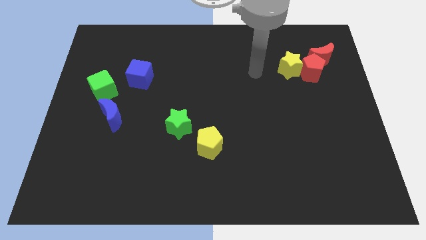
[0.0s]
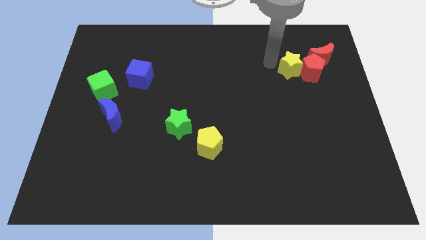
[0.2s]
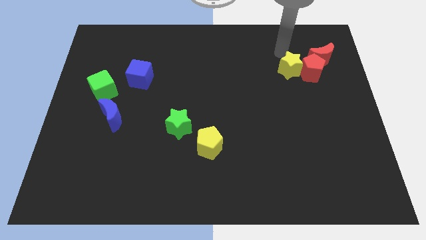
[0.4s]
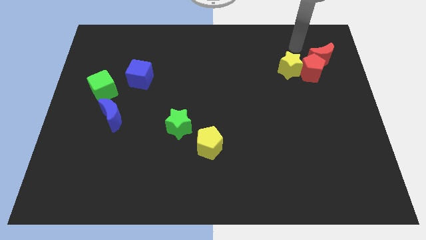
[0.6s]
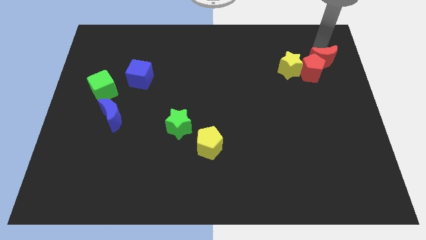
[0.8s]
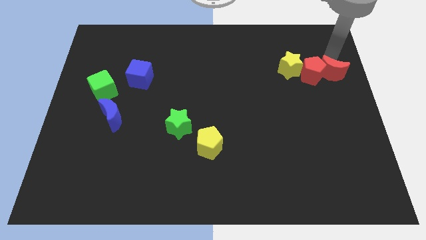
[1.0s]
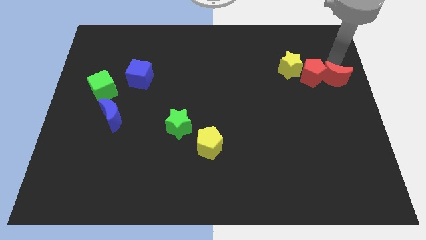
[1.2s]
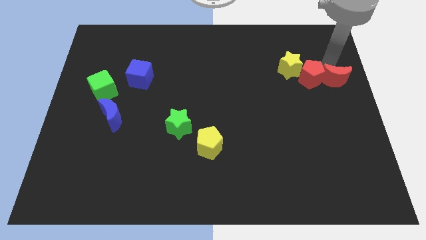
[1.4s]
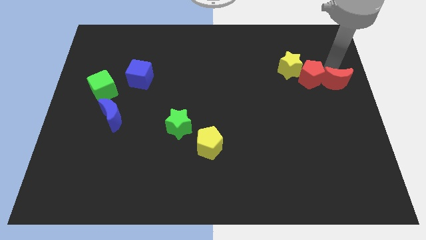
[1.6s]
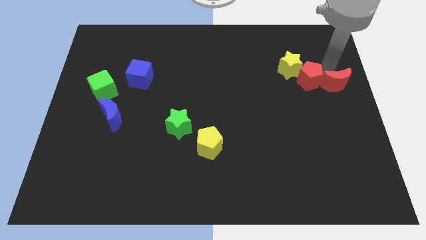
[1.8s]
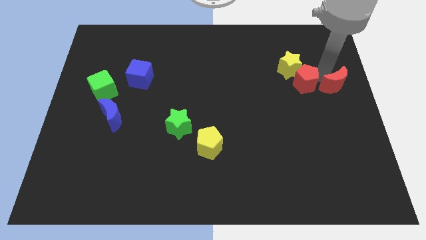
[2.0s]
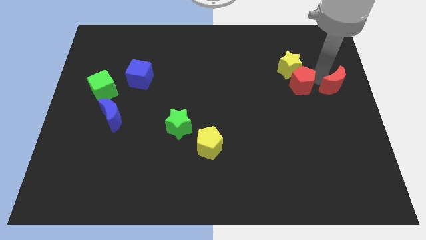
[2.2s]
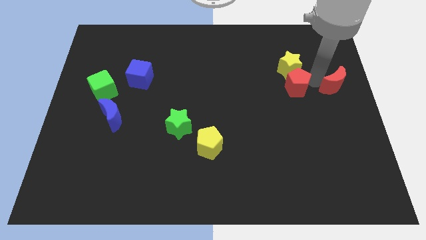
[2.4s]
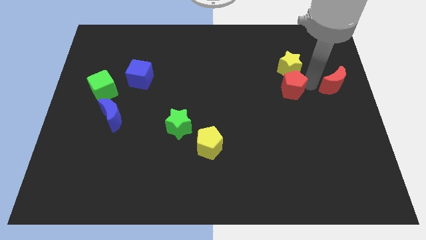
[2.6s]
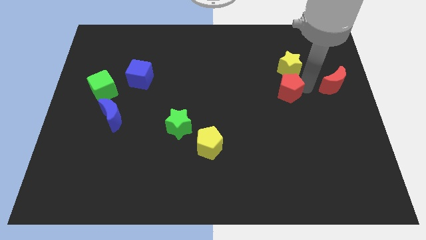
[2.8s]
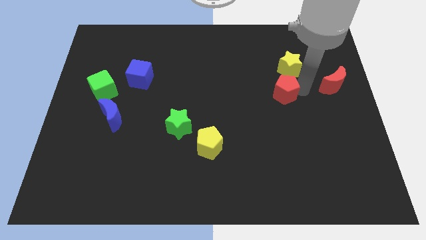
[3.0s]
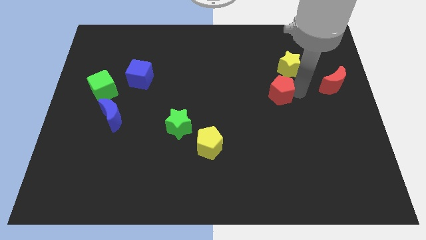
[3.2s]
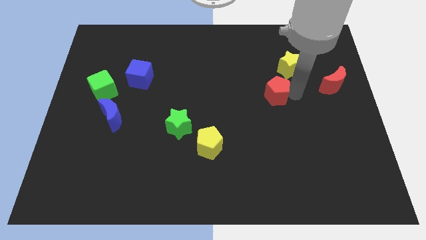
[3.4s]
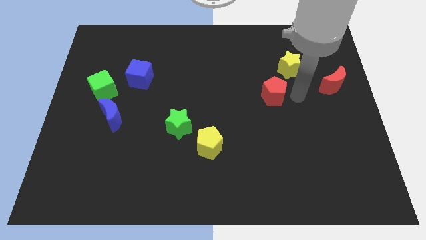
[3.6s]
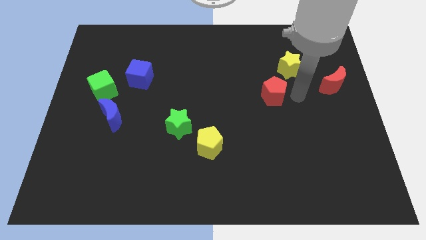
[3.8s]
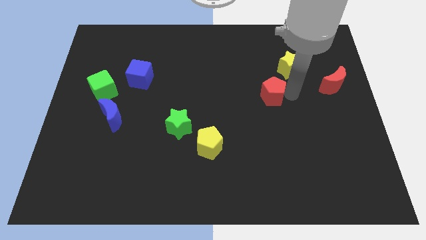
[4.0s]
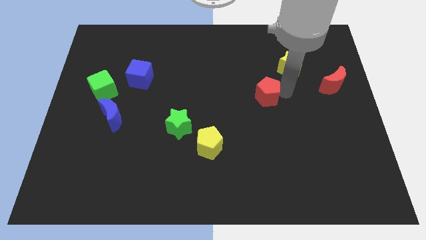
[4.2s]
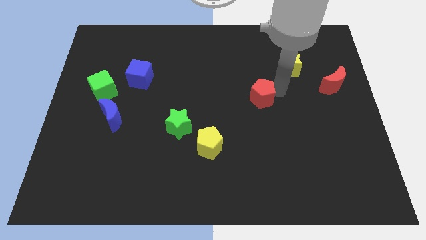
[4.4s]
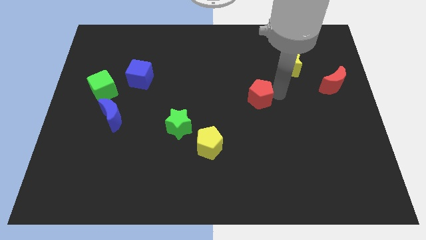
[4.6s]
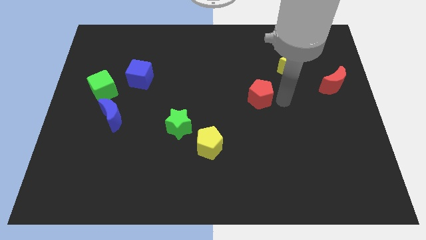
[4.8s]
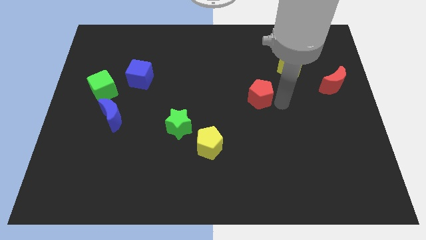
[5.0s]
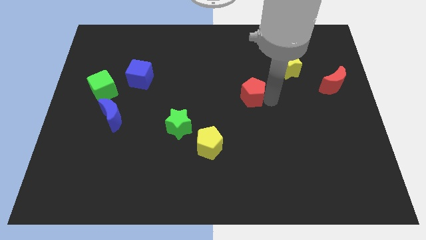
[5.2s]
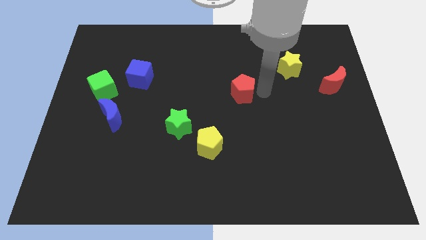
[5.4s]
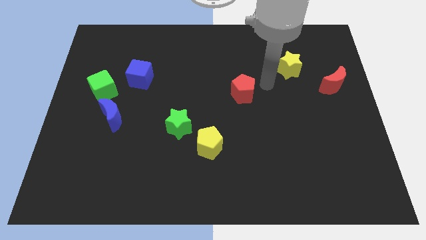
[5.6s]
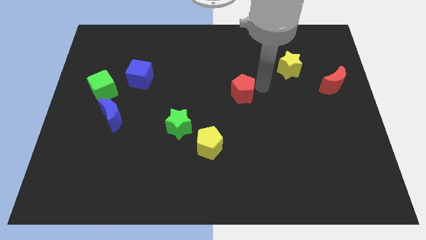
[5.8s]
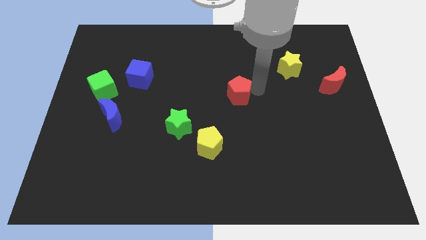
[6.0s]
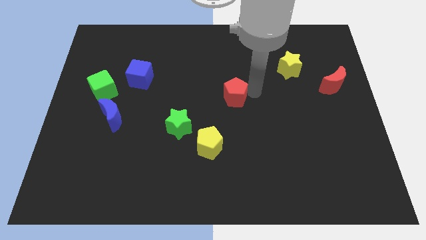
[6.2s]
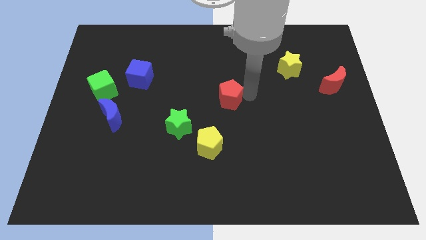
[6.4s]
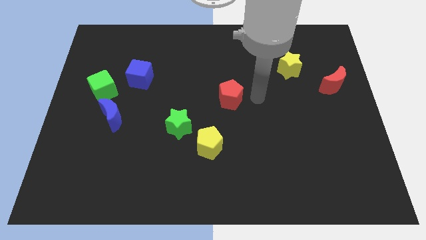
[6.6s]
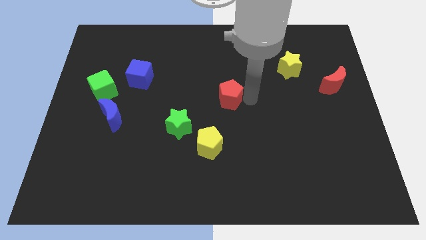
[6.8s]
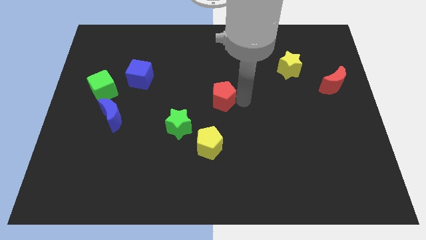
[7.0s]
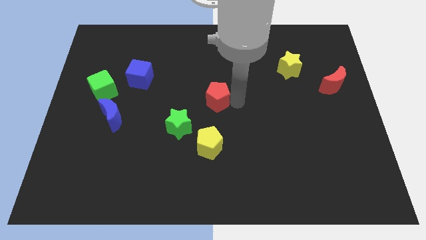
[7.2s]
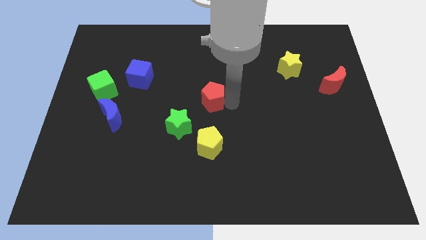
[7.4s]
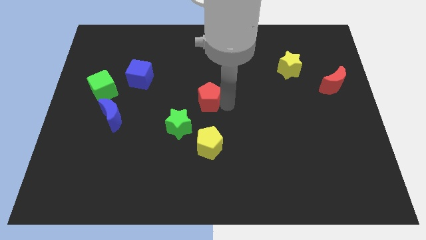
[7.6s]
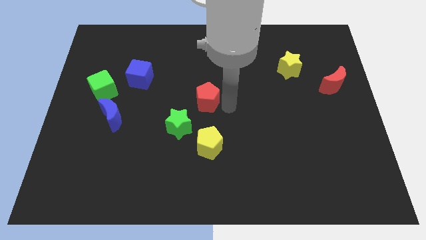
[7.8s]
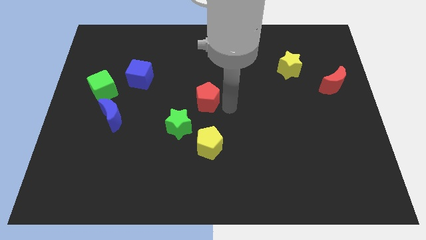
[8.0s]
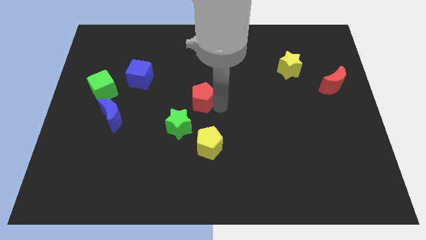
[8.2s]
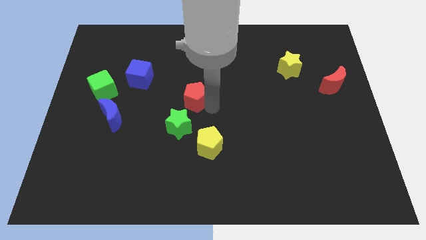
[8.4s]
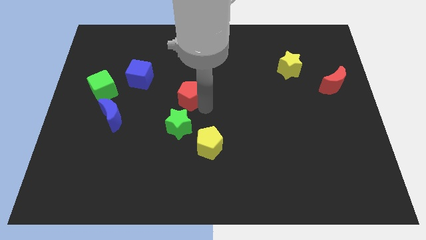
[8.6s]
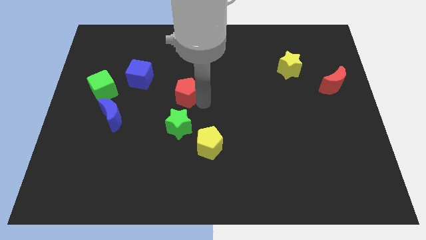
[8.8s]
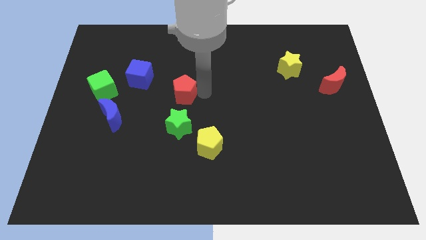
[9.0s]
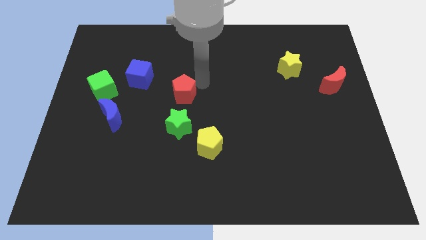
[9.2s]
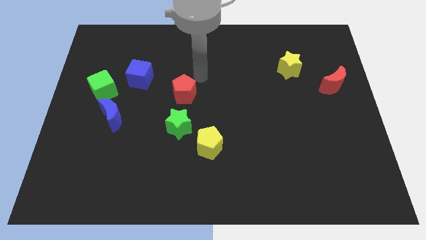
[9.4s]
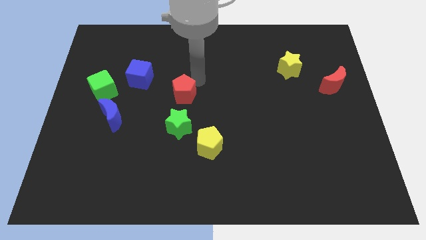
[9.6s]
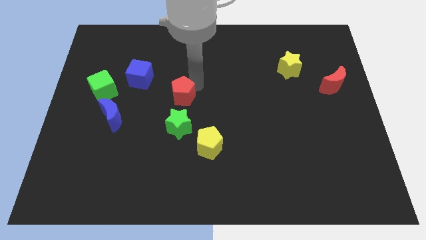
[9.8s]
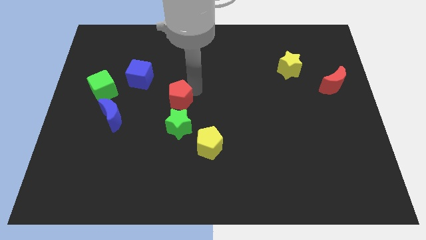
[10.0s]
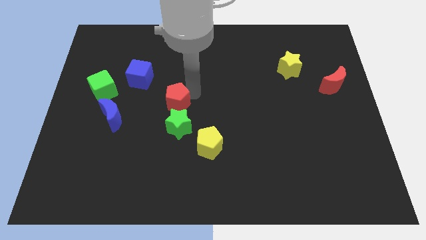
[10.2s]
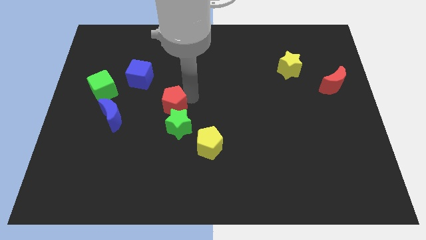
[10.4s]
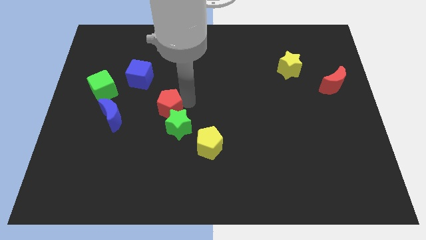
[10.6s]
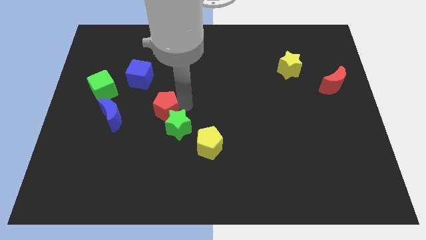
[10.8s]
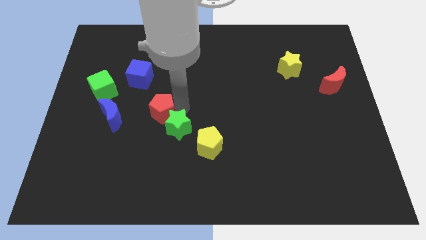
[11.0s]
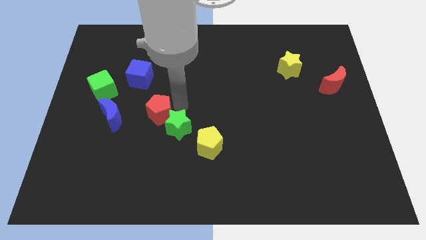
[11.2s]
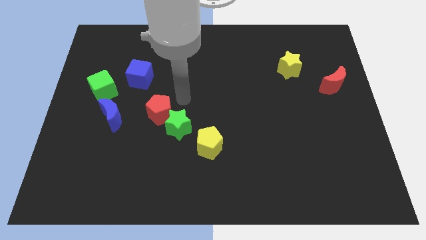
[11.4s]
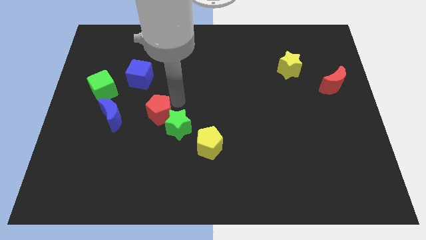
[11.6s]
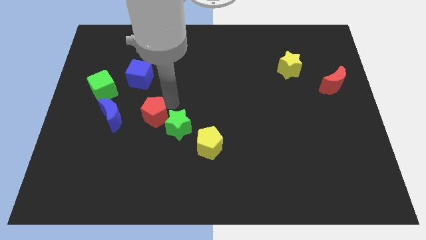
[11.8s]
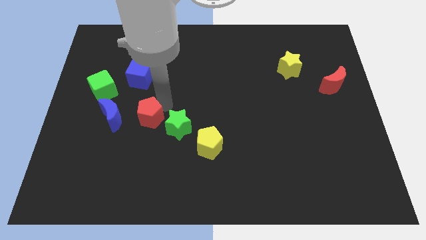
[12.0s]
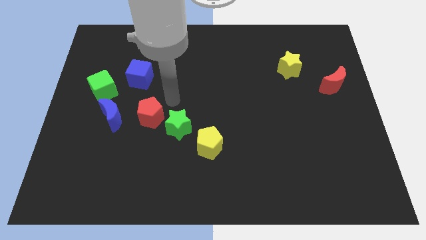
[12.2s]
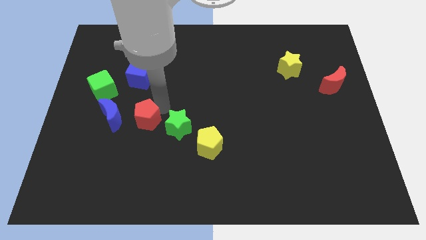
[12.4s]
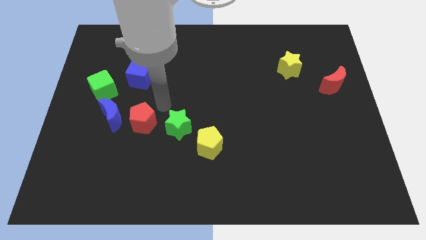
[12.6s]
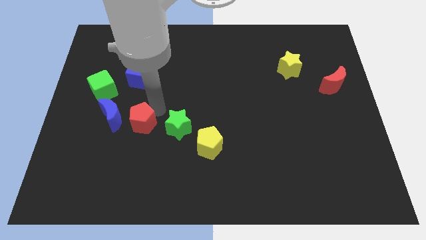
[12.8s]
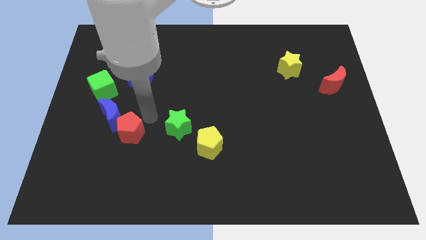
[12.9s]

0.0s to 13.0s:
put the red pentagon to the bottom of the blue moon

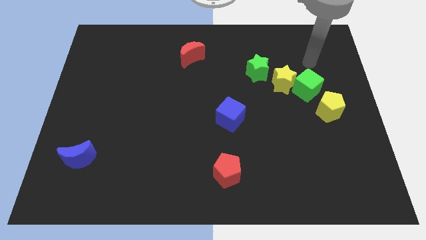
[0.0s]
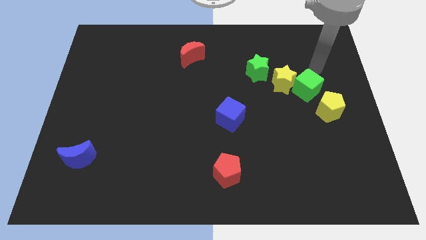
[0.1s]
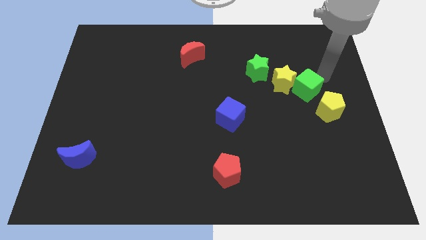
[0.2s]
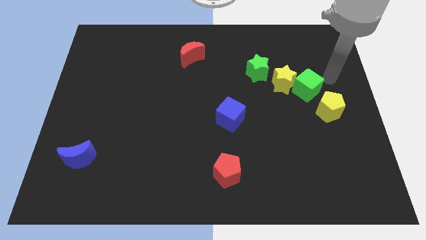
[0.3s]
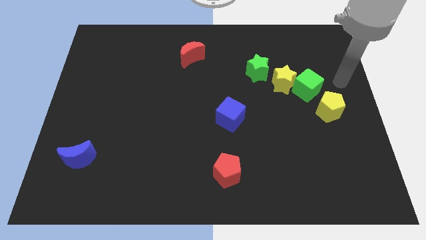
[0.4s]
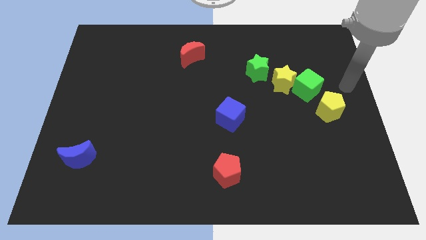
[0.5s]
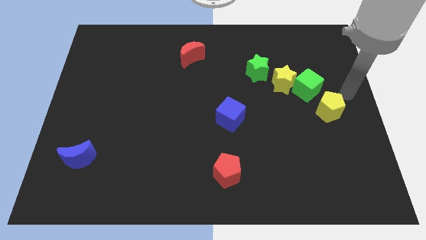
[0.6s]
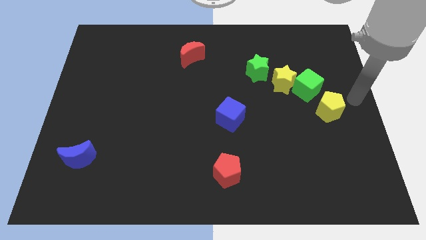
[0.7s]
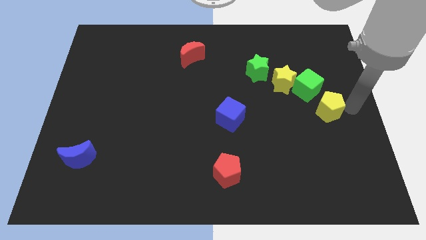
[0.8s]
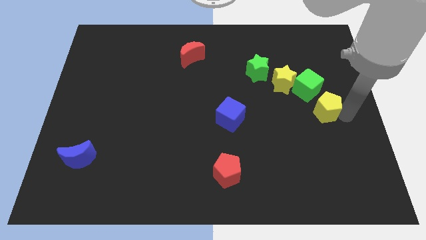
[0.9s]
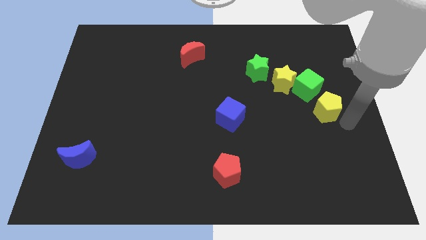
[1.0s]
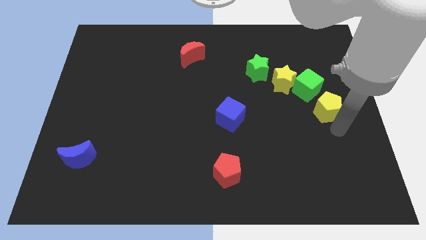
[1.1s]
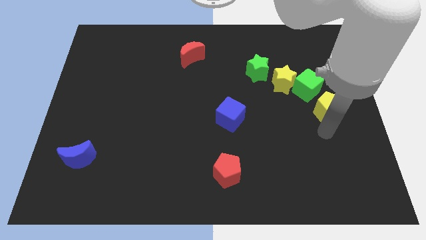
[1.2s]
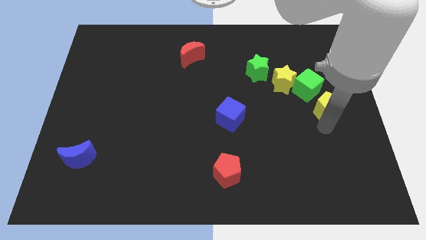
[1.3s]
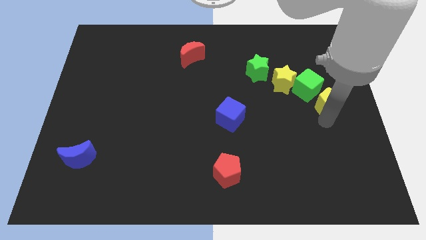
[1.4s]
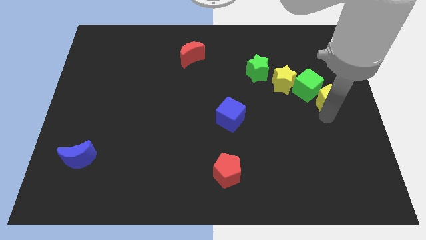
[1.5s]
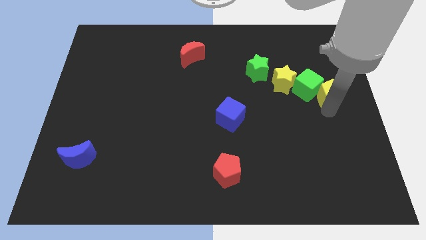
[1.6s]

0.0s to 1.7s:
slide the yellow pentagon just right of the yellow star
